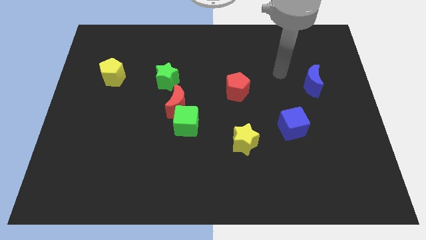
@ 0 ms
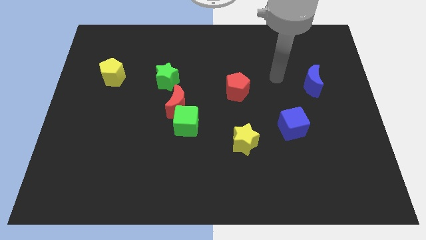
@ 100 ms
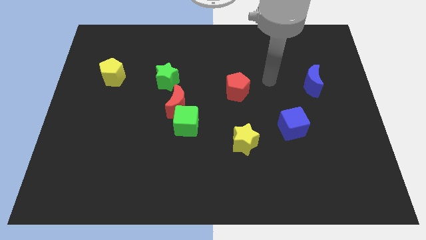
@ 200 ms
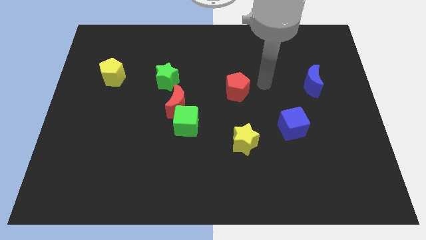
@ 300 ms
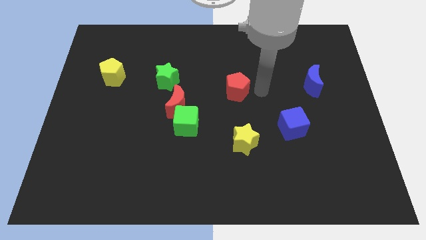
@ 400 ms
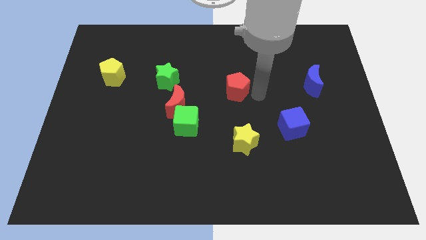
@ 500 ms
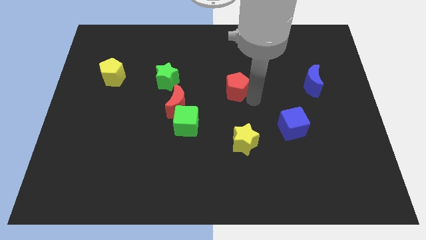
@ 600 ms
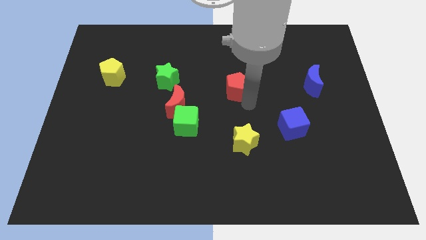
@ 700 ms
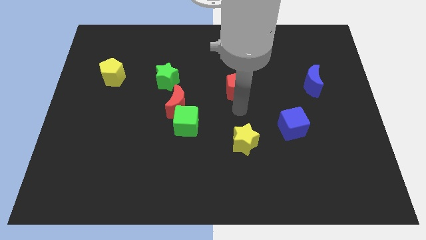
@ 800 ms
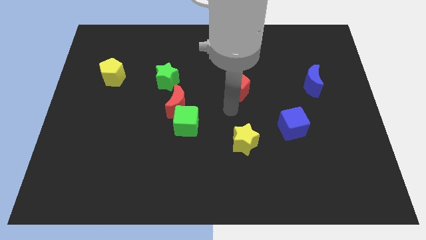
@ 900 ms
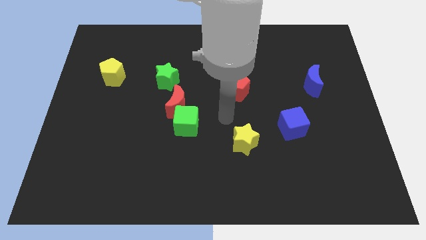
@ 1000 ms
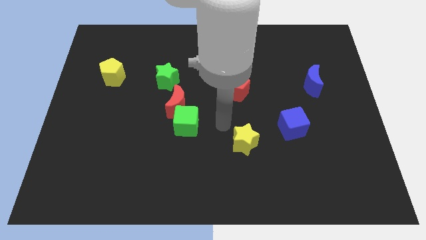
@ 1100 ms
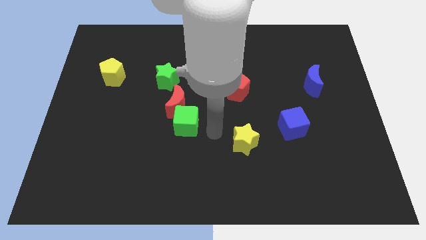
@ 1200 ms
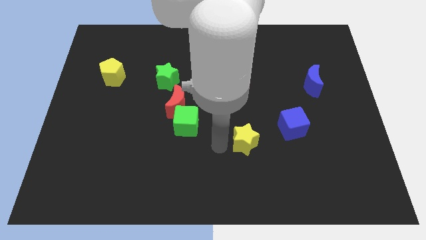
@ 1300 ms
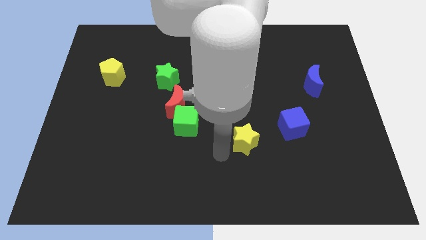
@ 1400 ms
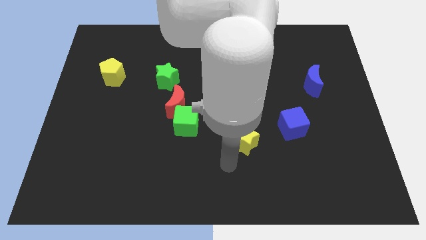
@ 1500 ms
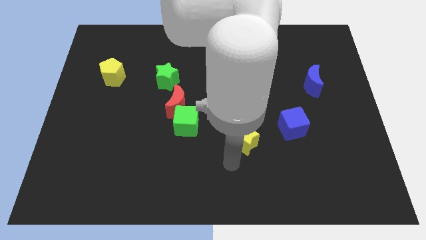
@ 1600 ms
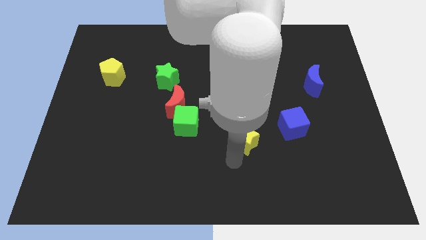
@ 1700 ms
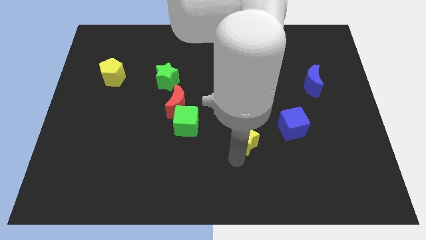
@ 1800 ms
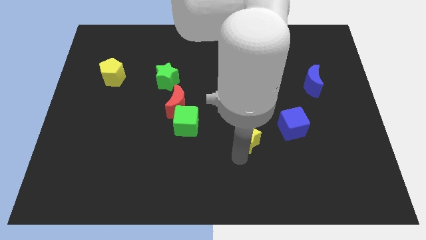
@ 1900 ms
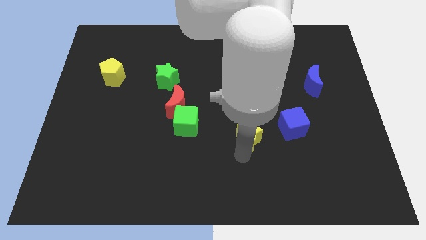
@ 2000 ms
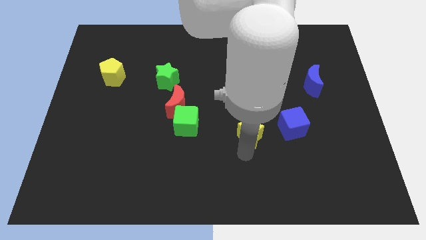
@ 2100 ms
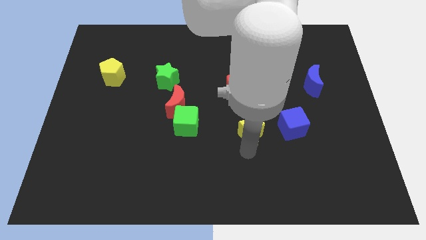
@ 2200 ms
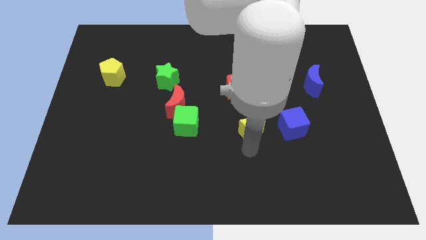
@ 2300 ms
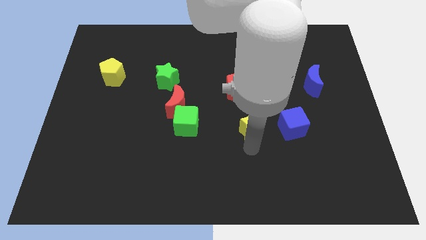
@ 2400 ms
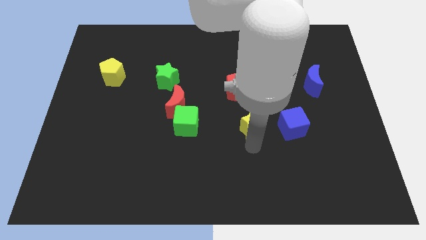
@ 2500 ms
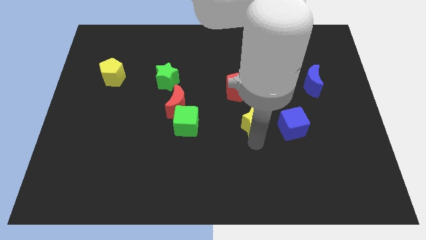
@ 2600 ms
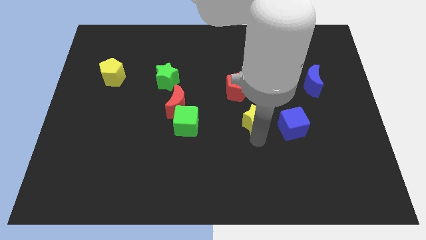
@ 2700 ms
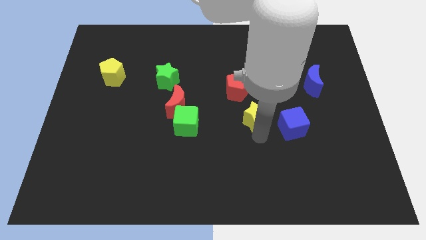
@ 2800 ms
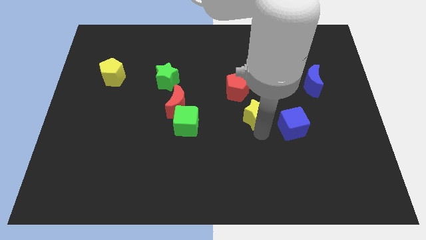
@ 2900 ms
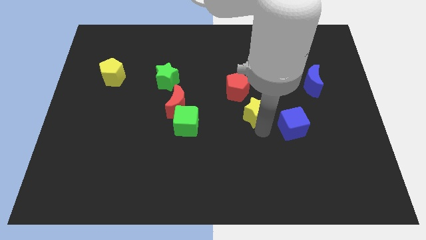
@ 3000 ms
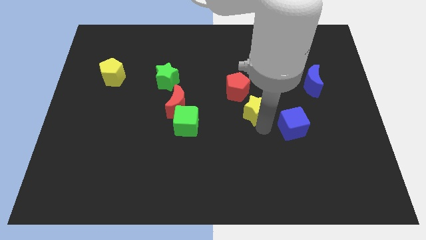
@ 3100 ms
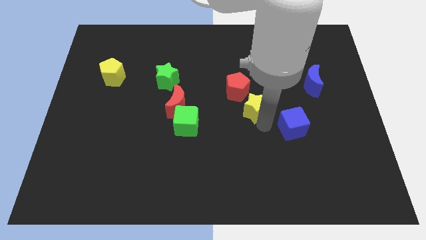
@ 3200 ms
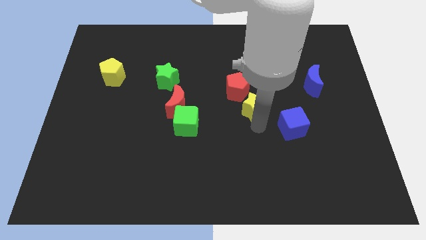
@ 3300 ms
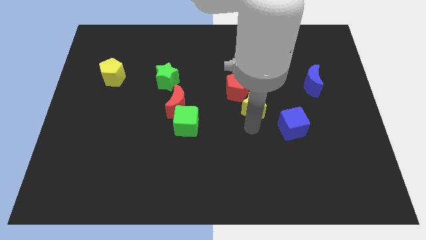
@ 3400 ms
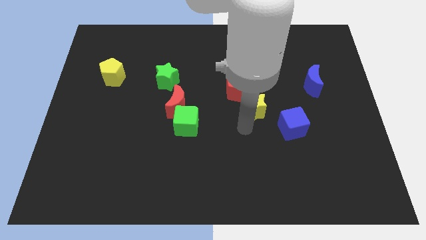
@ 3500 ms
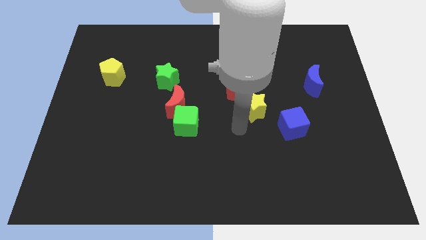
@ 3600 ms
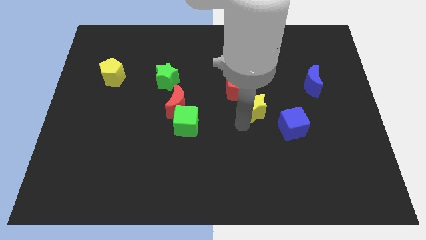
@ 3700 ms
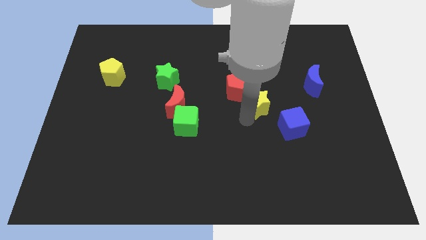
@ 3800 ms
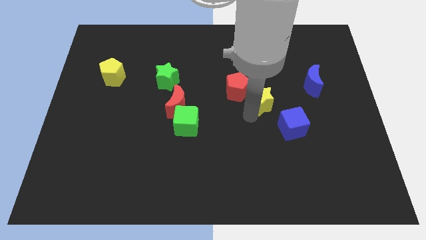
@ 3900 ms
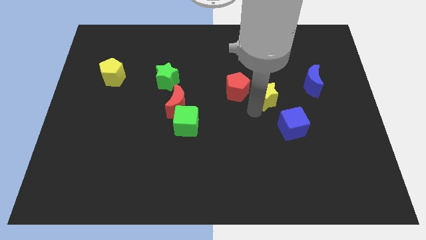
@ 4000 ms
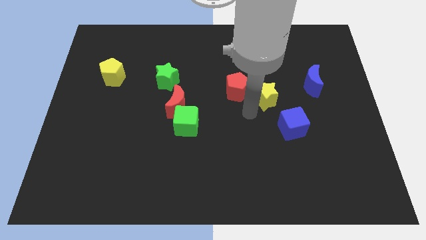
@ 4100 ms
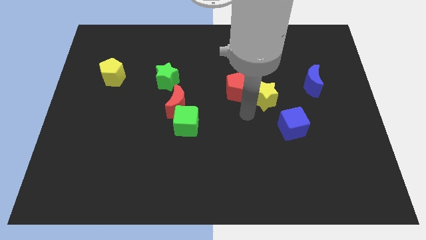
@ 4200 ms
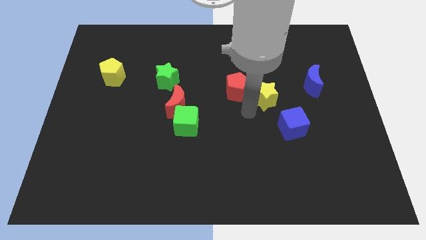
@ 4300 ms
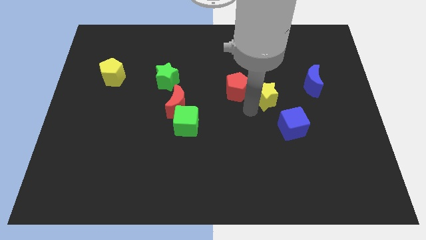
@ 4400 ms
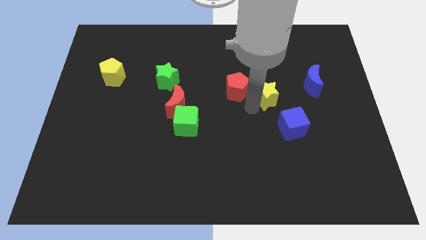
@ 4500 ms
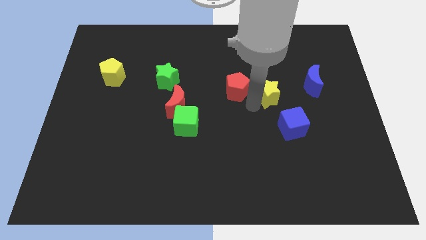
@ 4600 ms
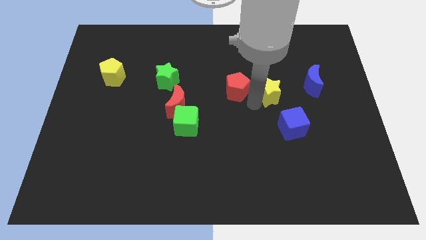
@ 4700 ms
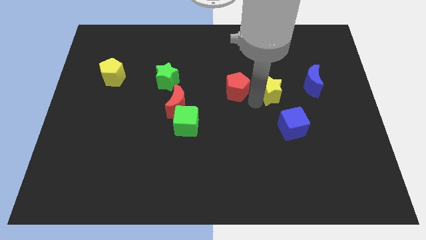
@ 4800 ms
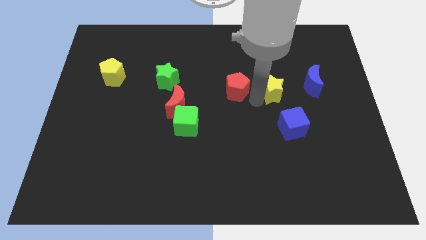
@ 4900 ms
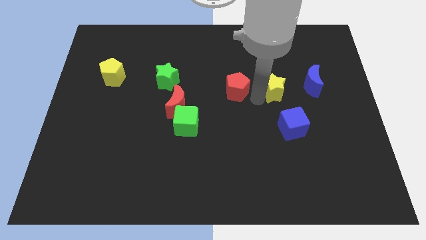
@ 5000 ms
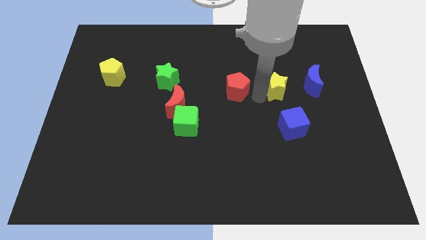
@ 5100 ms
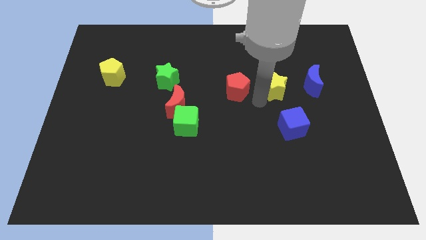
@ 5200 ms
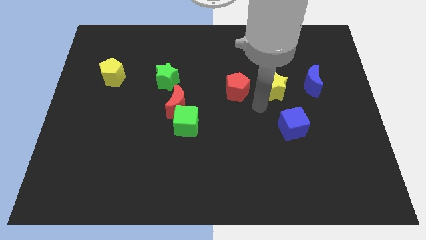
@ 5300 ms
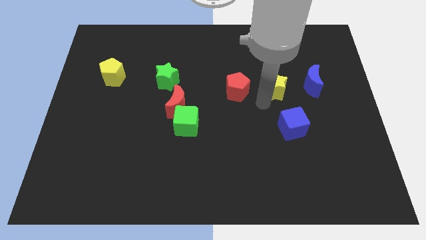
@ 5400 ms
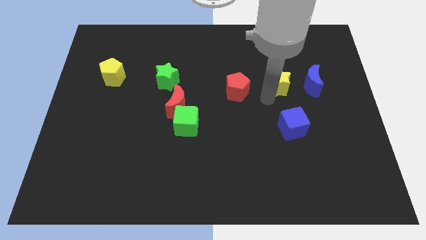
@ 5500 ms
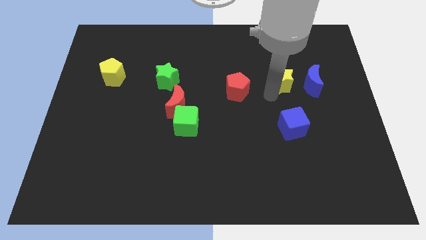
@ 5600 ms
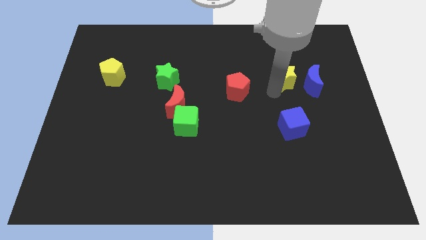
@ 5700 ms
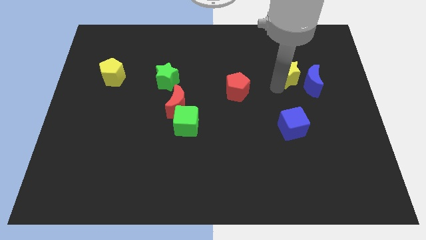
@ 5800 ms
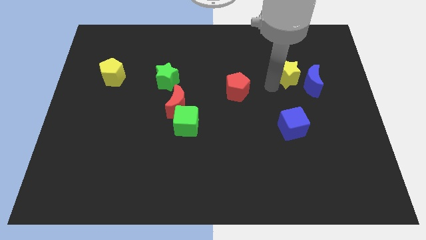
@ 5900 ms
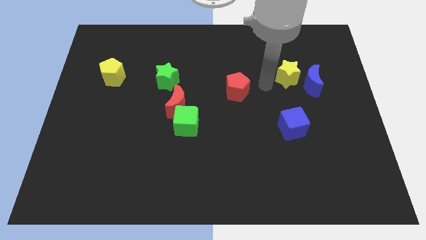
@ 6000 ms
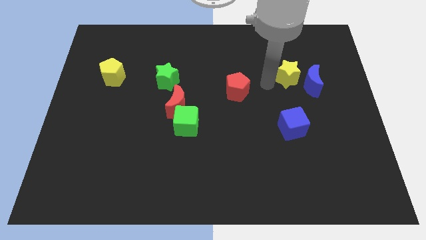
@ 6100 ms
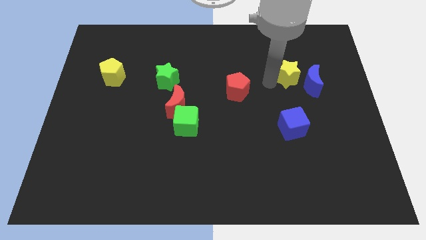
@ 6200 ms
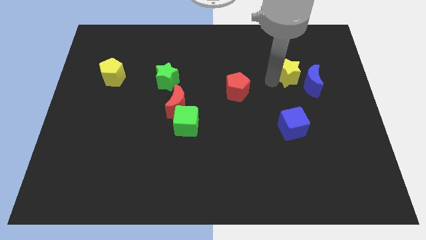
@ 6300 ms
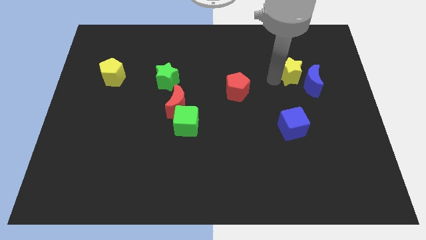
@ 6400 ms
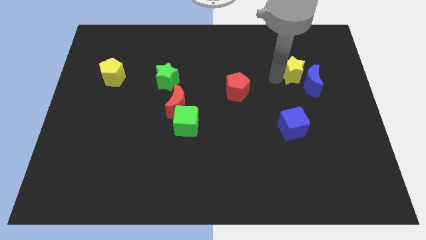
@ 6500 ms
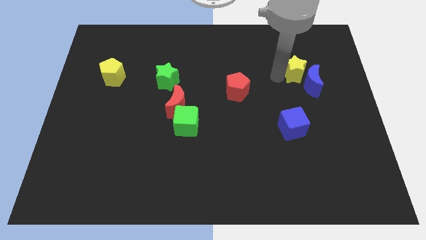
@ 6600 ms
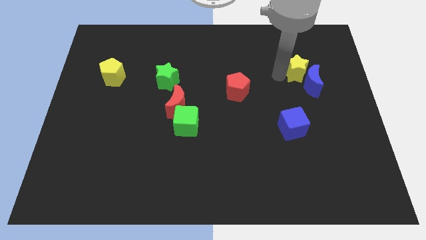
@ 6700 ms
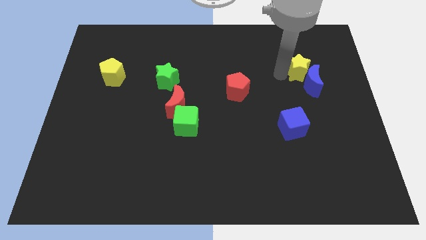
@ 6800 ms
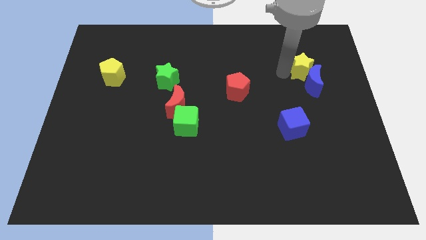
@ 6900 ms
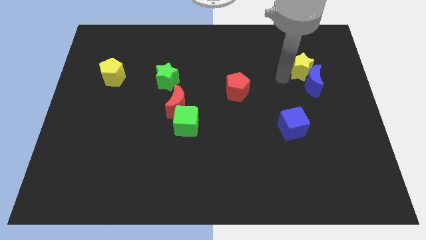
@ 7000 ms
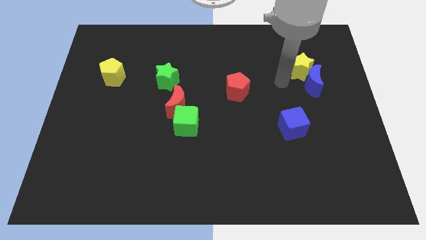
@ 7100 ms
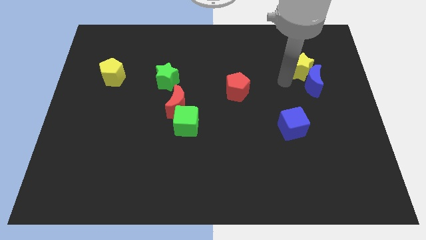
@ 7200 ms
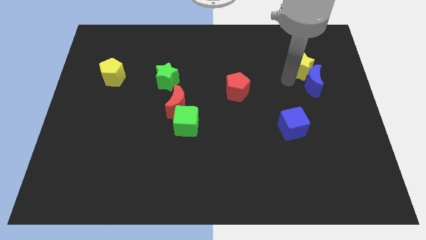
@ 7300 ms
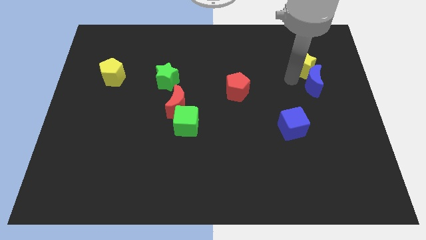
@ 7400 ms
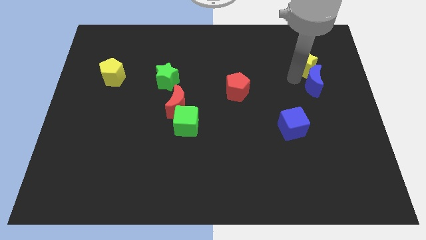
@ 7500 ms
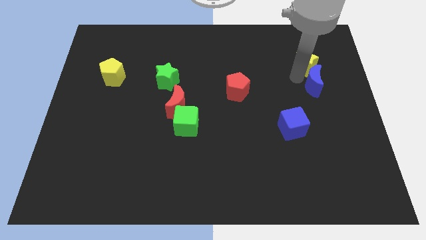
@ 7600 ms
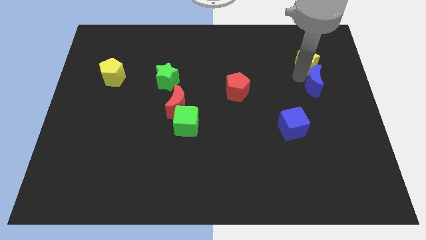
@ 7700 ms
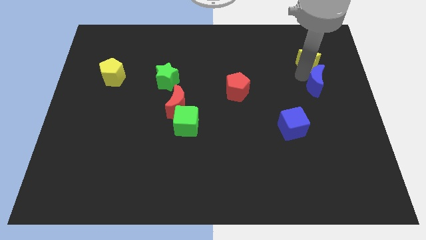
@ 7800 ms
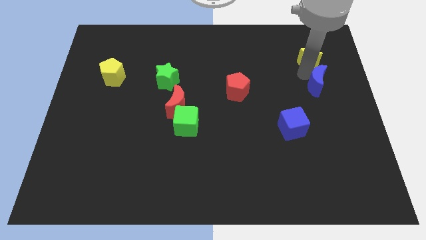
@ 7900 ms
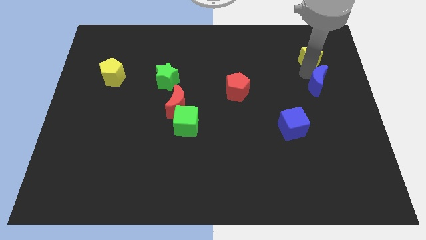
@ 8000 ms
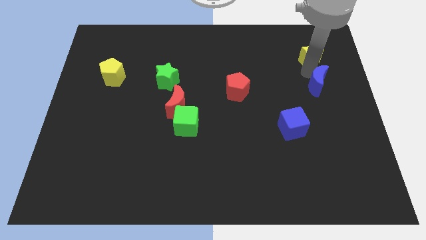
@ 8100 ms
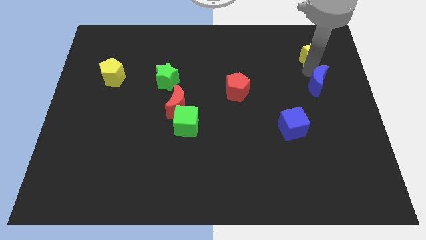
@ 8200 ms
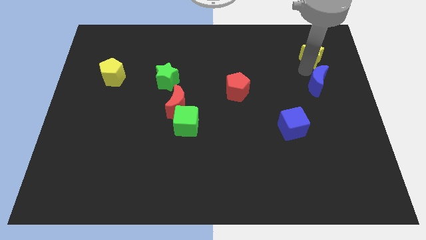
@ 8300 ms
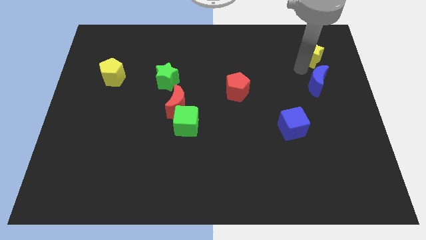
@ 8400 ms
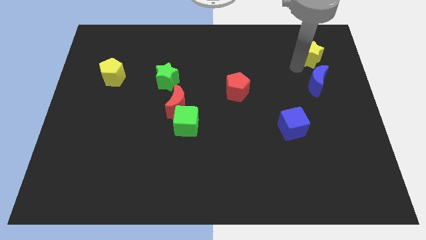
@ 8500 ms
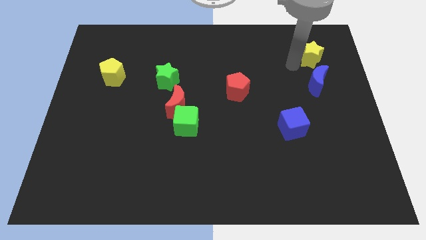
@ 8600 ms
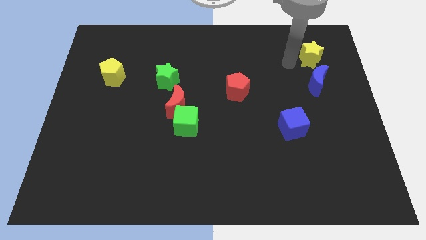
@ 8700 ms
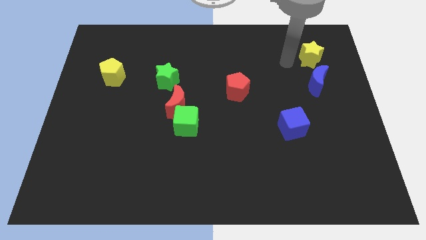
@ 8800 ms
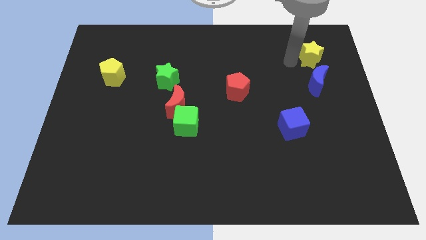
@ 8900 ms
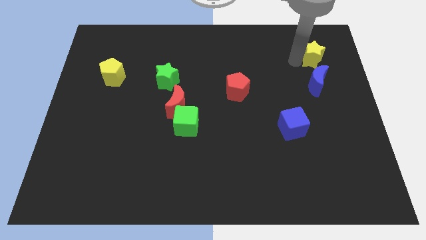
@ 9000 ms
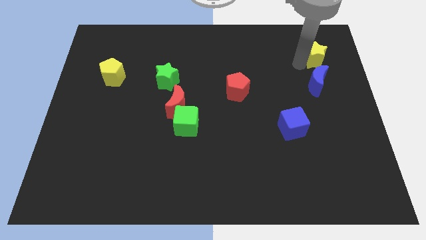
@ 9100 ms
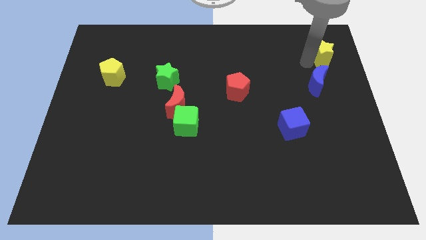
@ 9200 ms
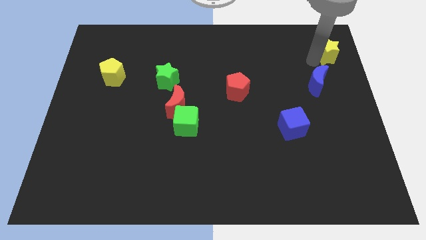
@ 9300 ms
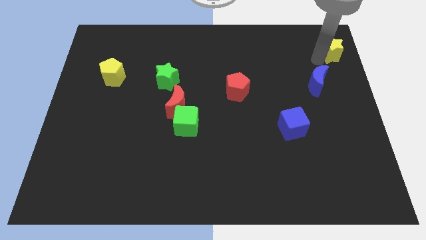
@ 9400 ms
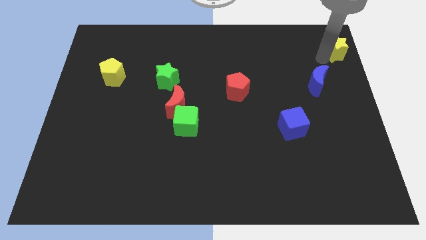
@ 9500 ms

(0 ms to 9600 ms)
move the yellow star to the top right corner
